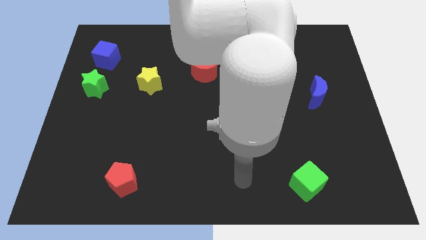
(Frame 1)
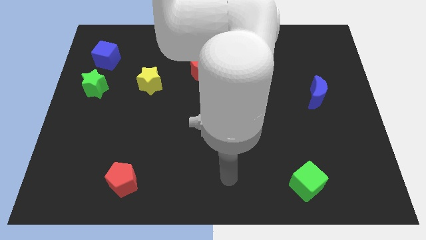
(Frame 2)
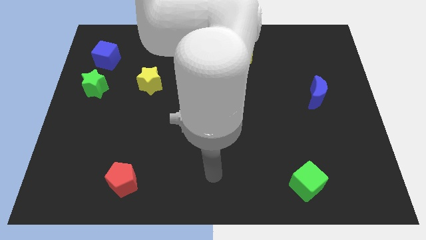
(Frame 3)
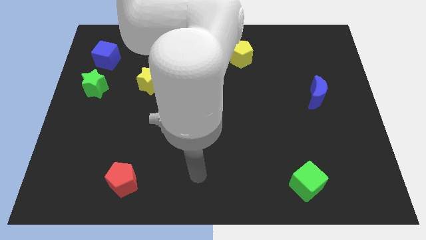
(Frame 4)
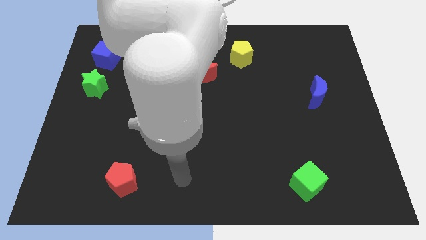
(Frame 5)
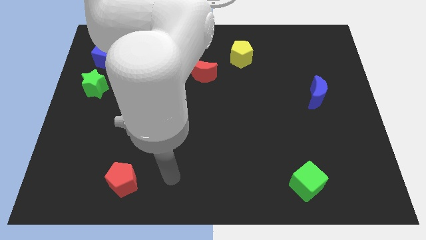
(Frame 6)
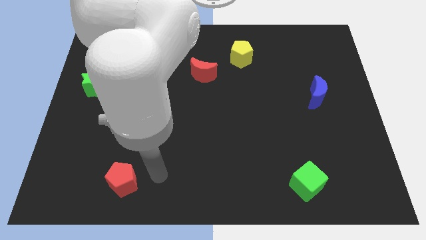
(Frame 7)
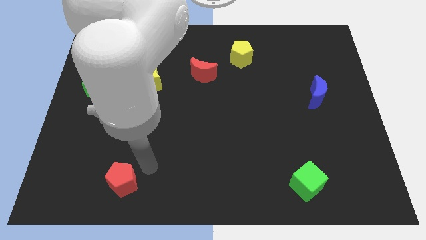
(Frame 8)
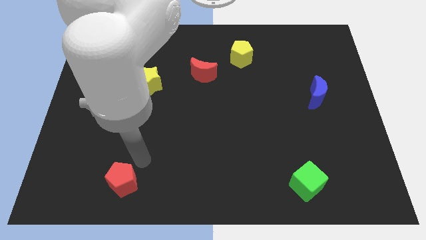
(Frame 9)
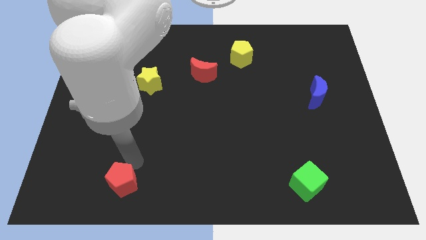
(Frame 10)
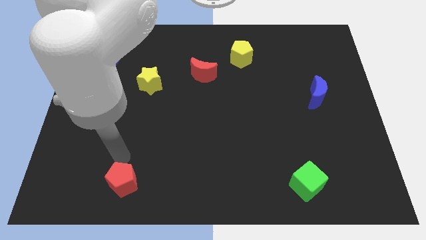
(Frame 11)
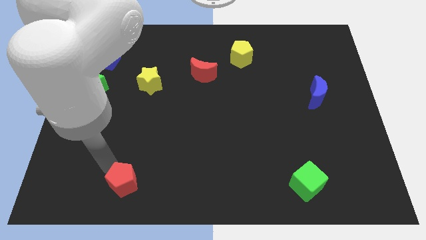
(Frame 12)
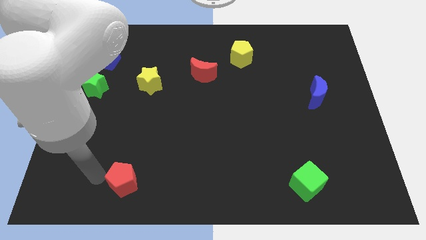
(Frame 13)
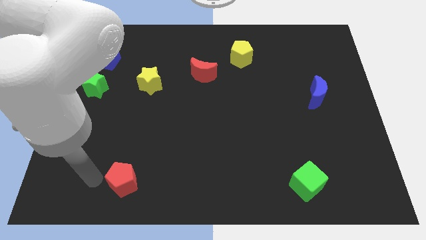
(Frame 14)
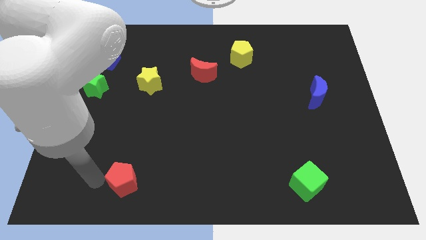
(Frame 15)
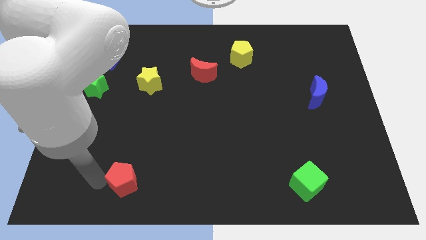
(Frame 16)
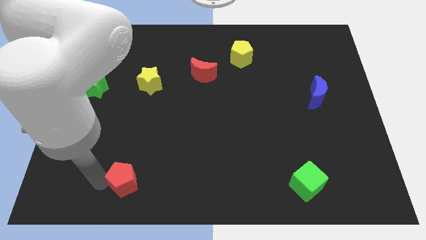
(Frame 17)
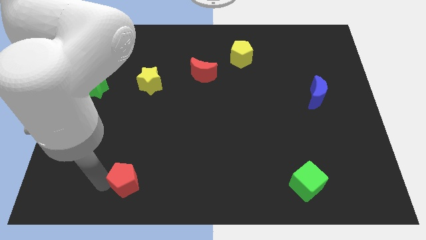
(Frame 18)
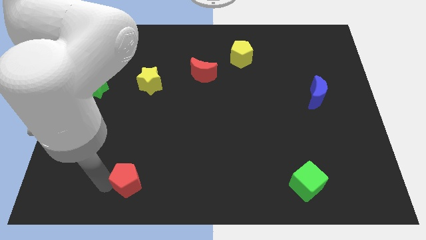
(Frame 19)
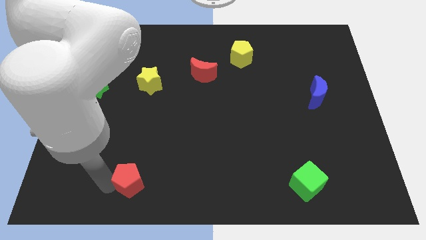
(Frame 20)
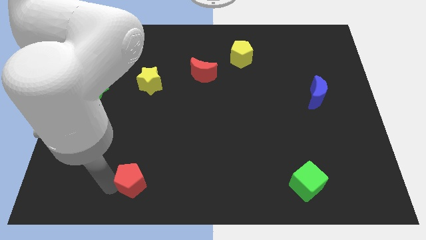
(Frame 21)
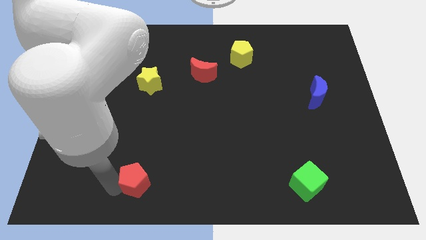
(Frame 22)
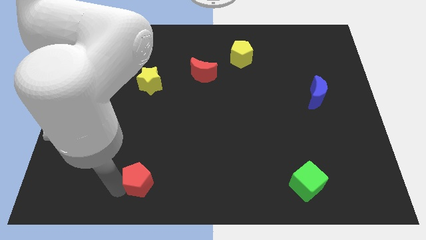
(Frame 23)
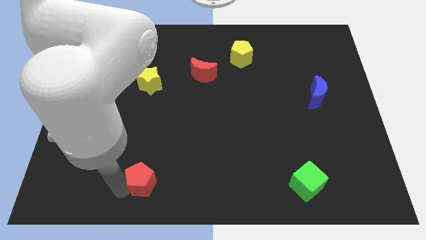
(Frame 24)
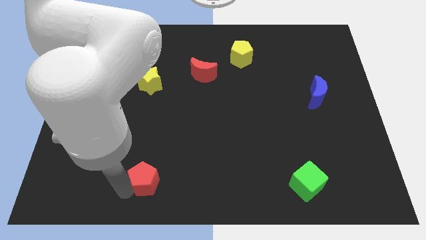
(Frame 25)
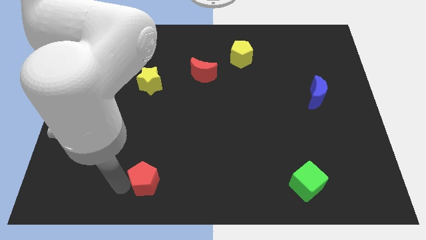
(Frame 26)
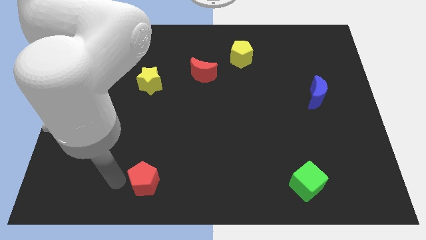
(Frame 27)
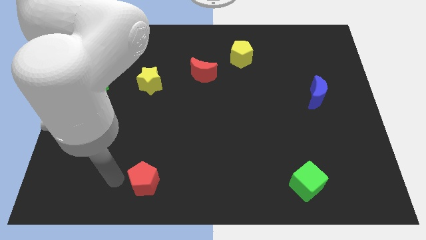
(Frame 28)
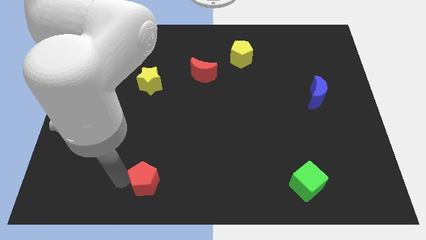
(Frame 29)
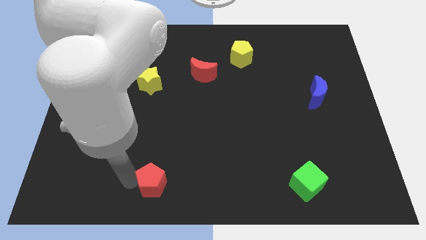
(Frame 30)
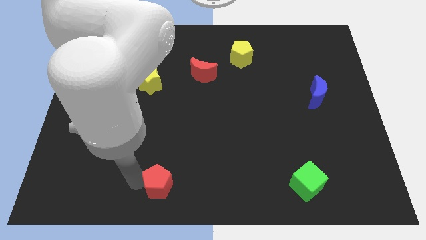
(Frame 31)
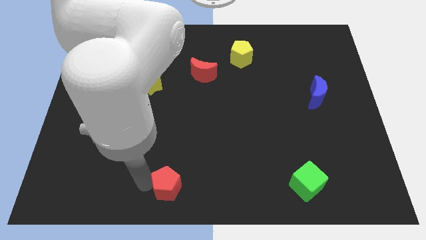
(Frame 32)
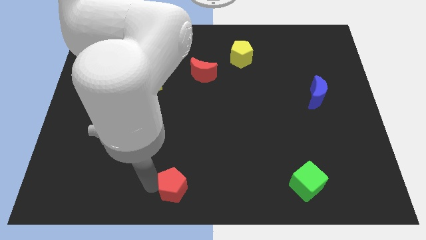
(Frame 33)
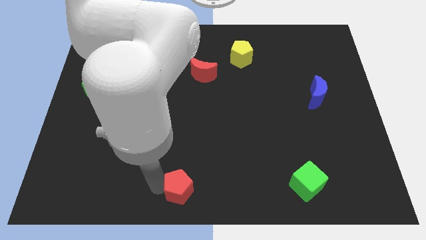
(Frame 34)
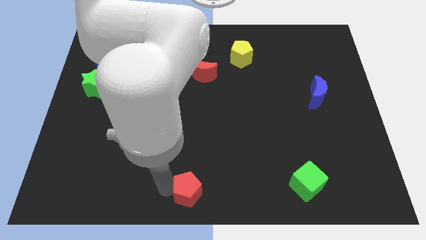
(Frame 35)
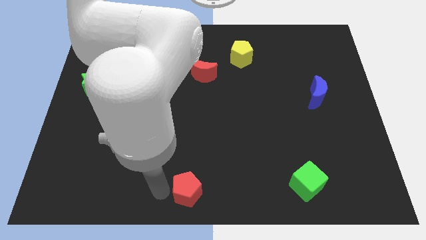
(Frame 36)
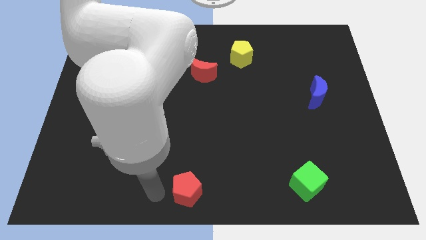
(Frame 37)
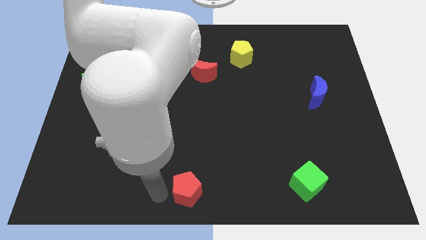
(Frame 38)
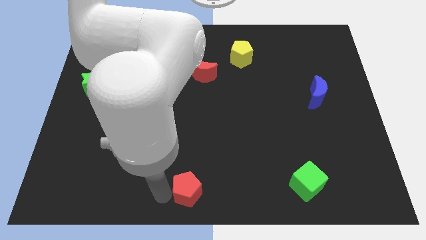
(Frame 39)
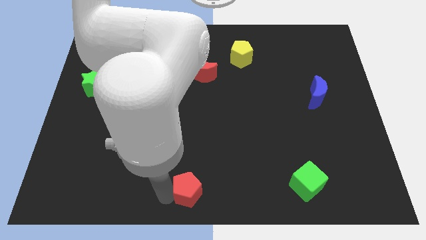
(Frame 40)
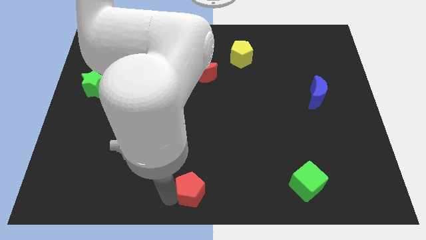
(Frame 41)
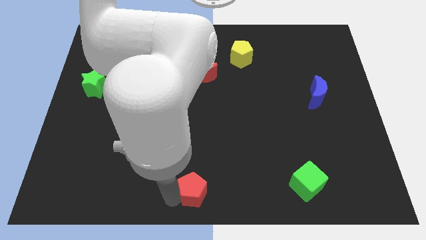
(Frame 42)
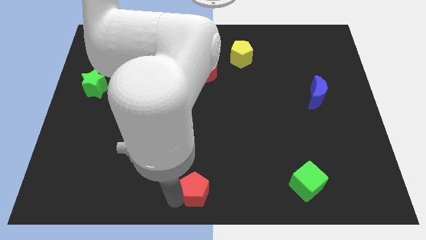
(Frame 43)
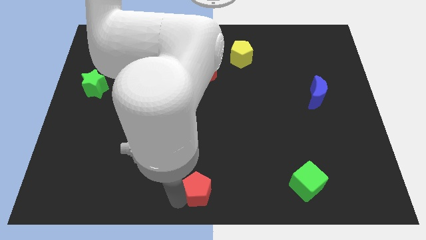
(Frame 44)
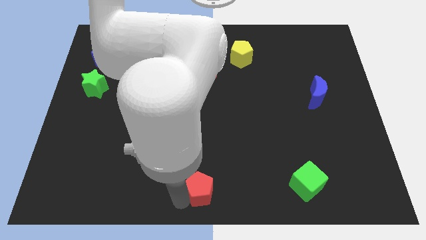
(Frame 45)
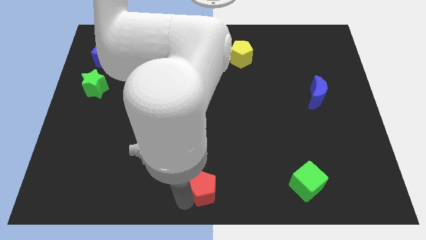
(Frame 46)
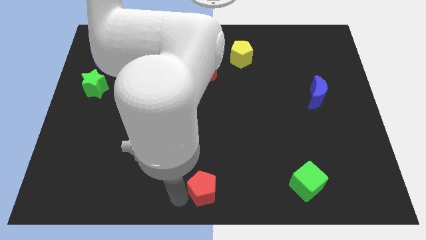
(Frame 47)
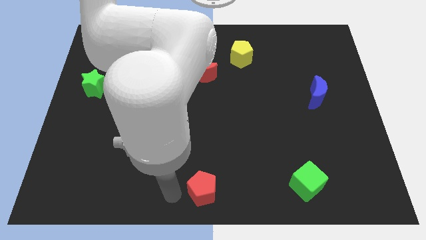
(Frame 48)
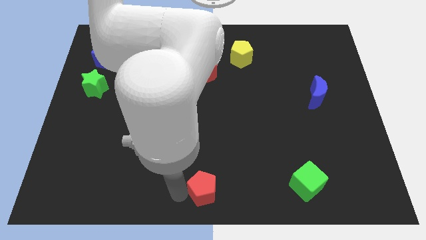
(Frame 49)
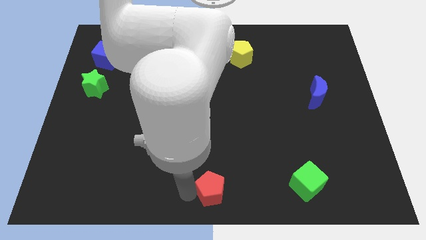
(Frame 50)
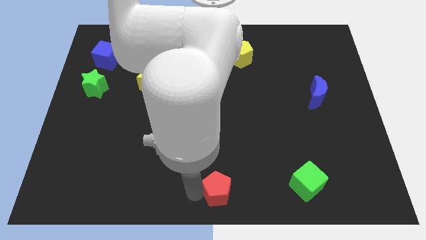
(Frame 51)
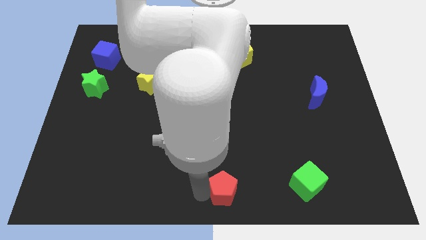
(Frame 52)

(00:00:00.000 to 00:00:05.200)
slide the red pentagon to the right

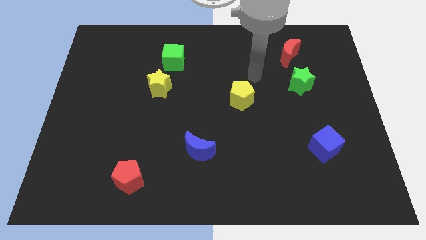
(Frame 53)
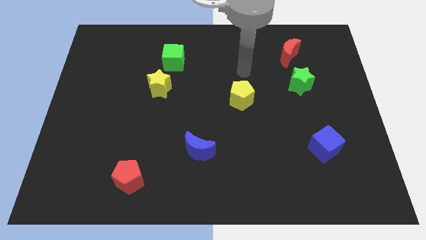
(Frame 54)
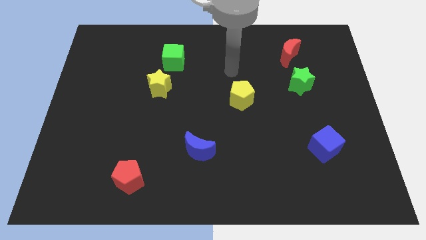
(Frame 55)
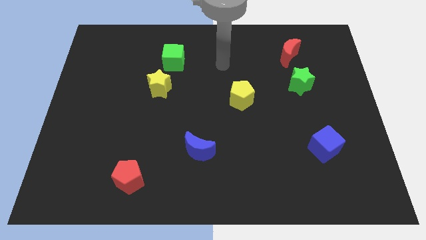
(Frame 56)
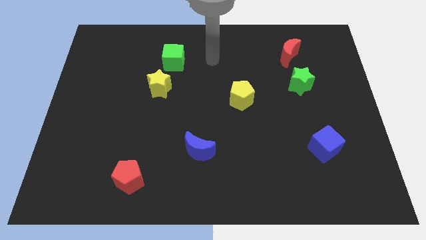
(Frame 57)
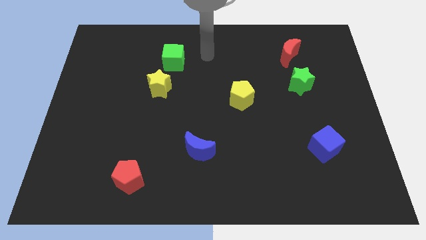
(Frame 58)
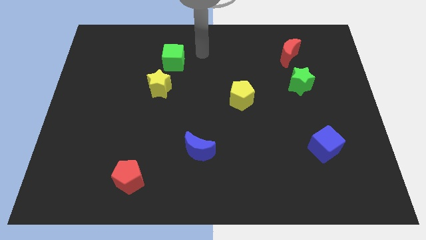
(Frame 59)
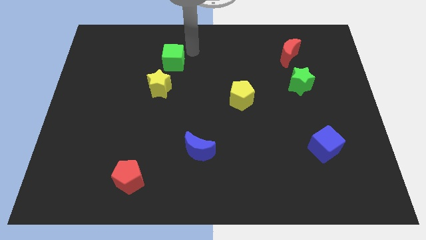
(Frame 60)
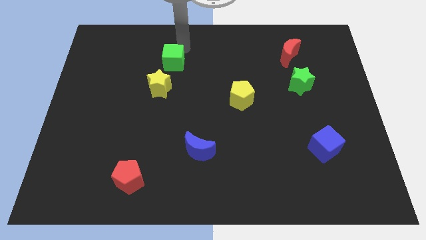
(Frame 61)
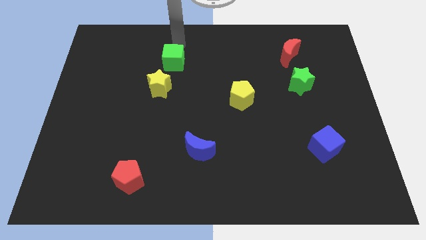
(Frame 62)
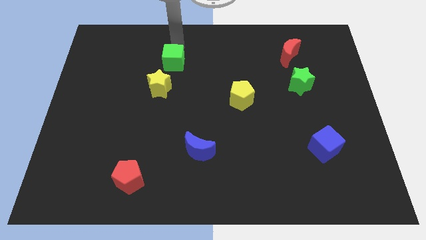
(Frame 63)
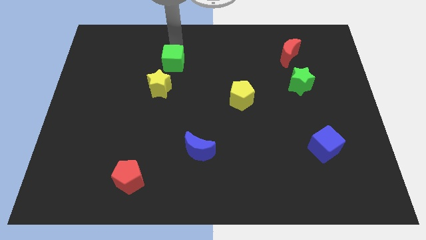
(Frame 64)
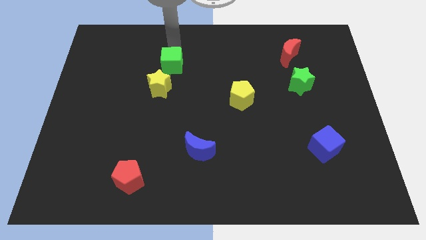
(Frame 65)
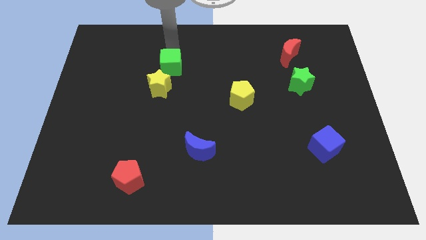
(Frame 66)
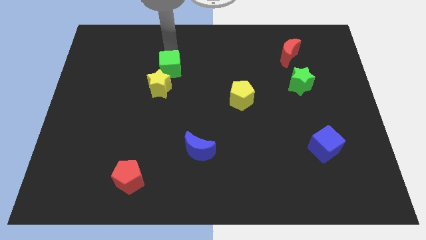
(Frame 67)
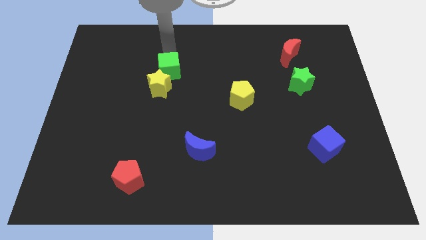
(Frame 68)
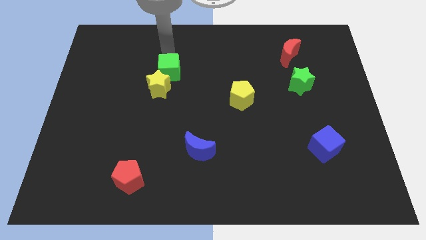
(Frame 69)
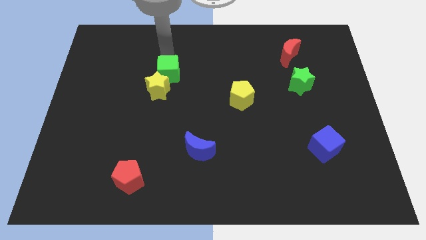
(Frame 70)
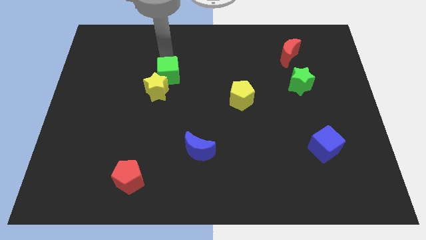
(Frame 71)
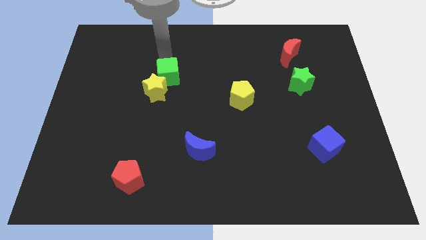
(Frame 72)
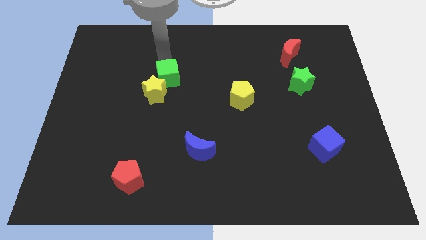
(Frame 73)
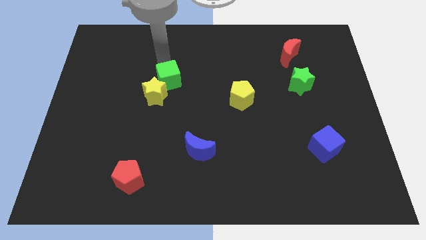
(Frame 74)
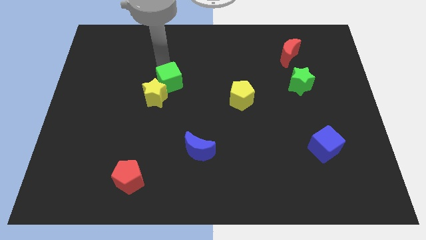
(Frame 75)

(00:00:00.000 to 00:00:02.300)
slightly slide the green cube downwards

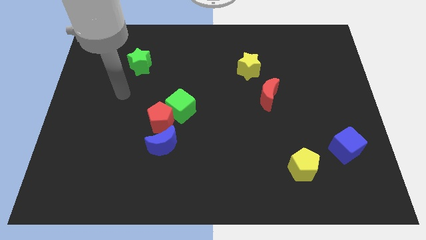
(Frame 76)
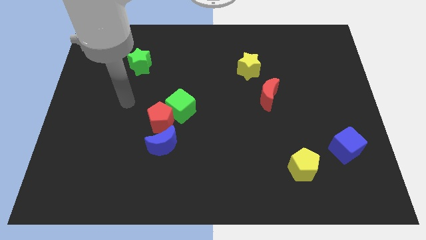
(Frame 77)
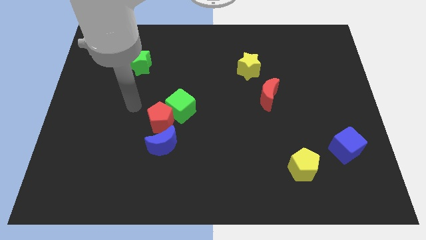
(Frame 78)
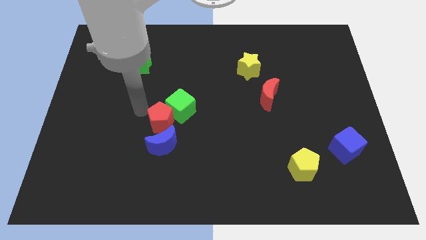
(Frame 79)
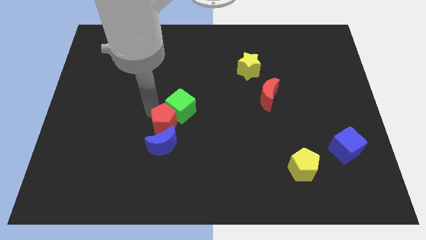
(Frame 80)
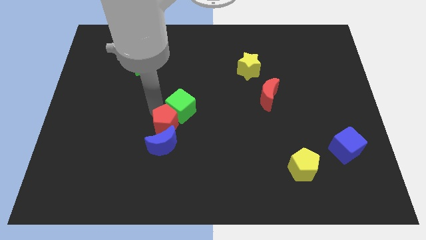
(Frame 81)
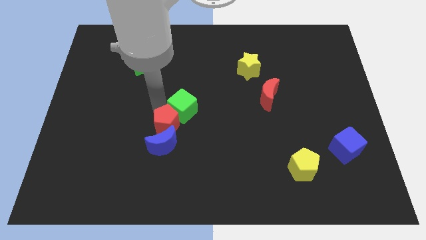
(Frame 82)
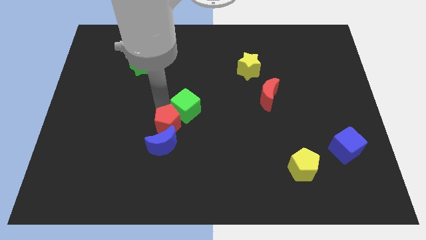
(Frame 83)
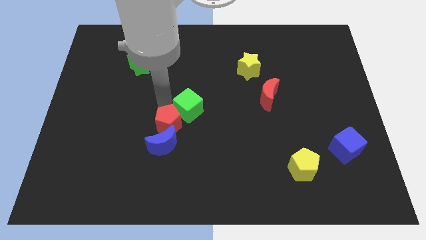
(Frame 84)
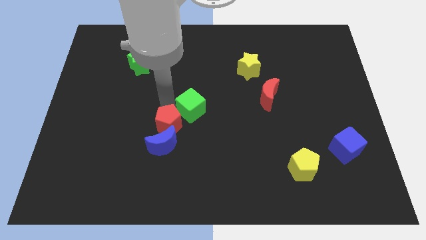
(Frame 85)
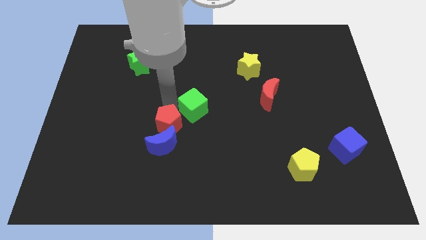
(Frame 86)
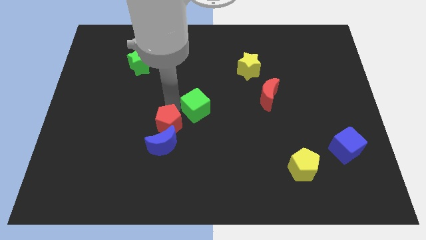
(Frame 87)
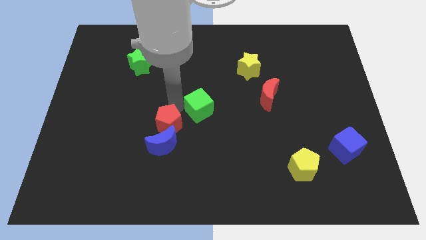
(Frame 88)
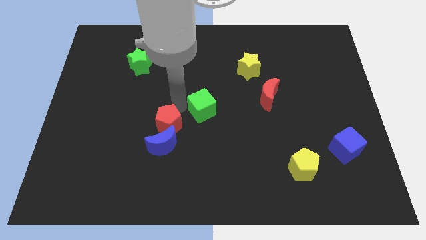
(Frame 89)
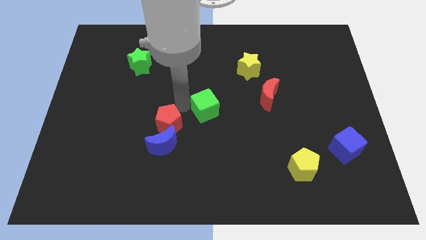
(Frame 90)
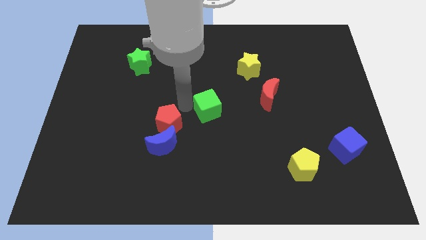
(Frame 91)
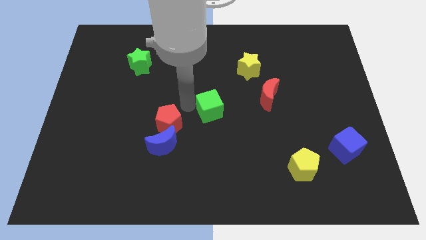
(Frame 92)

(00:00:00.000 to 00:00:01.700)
slide the green cube slightly right
